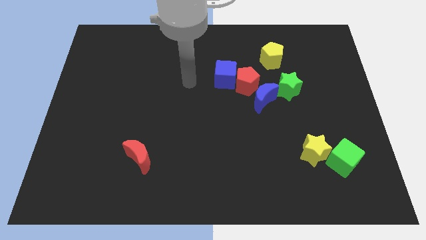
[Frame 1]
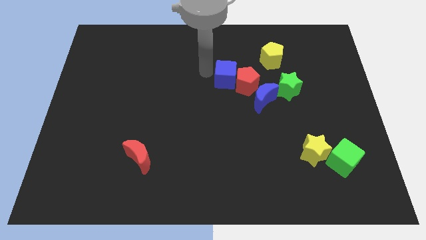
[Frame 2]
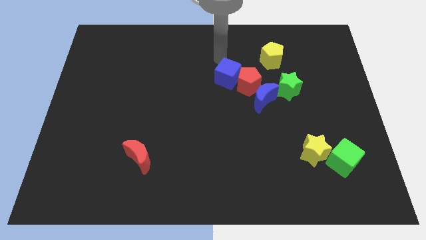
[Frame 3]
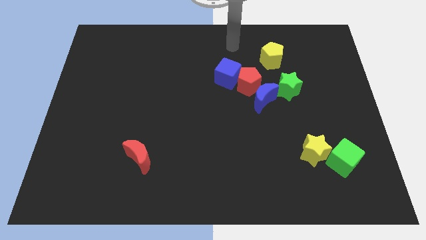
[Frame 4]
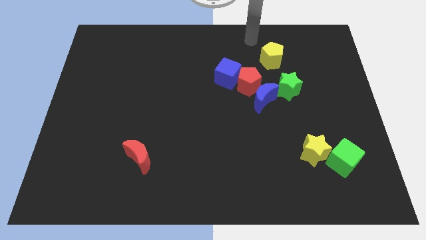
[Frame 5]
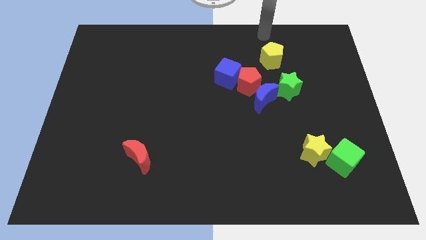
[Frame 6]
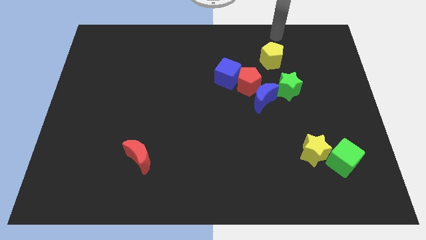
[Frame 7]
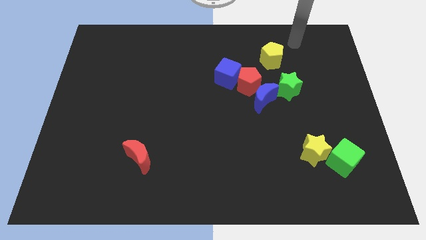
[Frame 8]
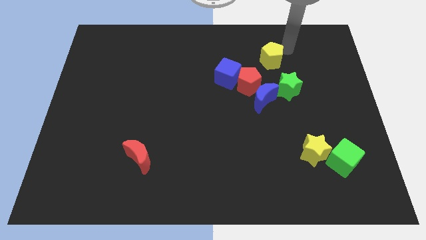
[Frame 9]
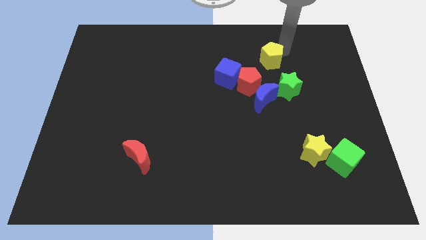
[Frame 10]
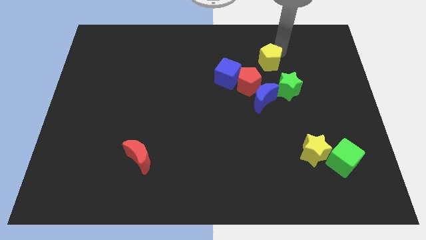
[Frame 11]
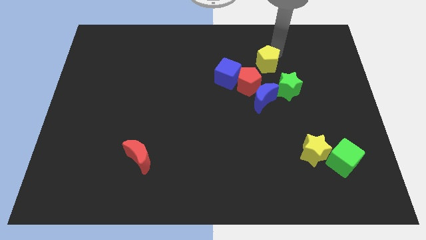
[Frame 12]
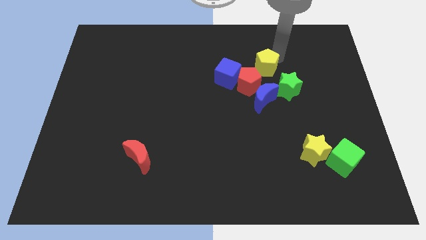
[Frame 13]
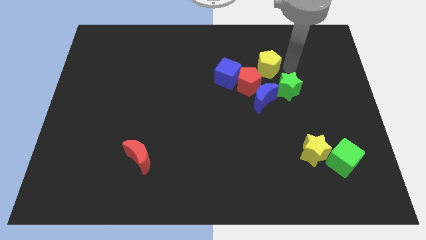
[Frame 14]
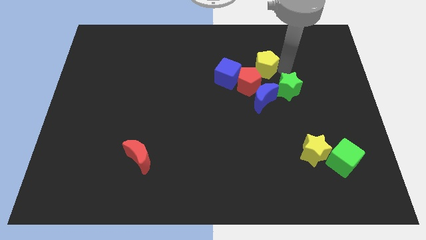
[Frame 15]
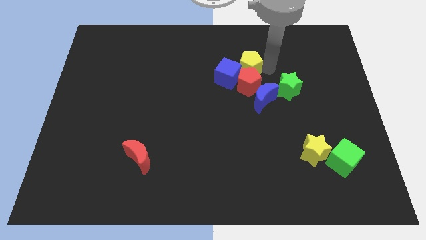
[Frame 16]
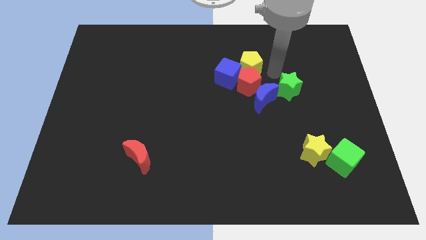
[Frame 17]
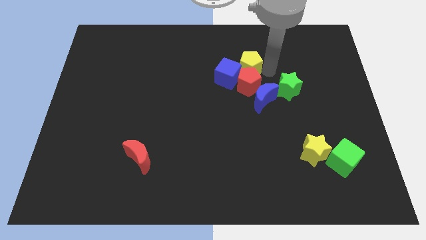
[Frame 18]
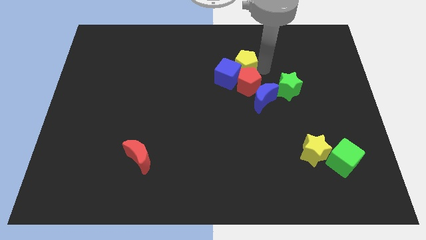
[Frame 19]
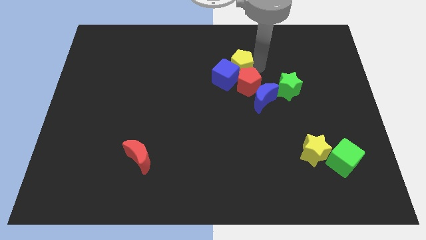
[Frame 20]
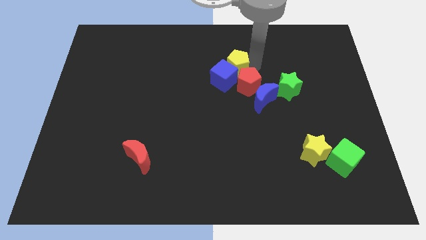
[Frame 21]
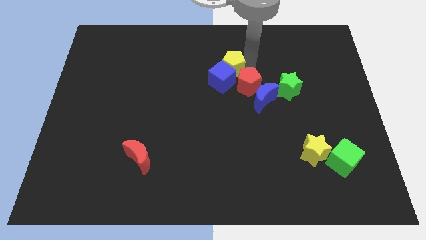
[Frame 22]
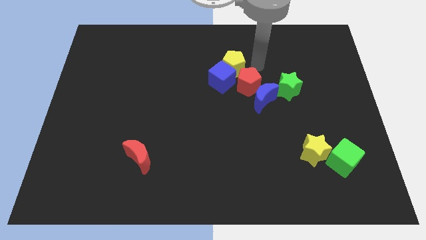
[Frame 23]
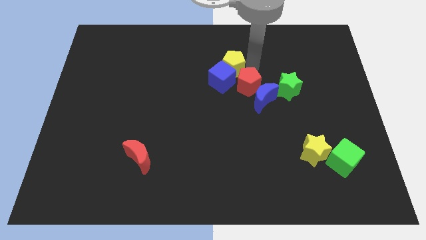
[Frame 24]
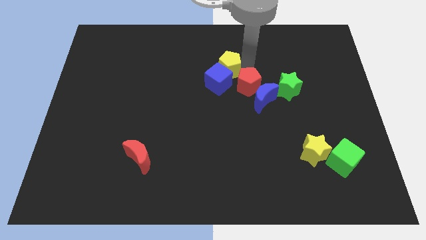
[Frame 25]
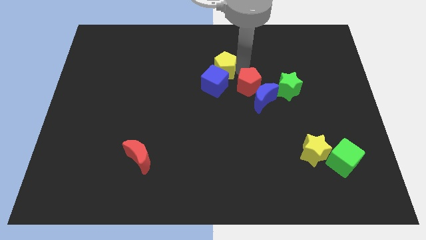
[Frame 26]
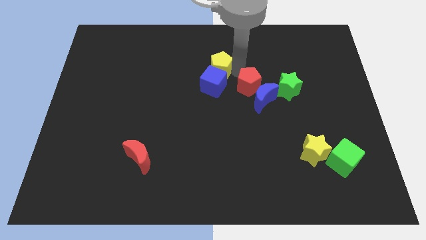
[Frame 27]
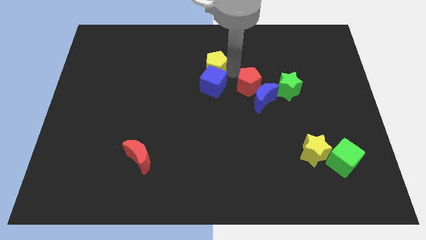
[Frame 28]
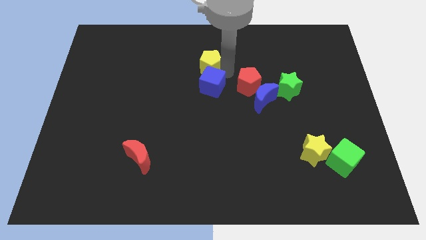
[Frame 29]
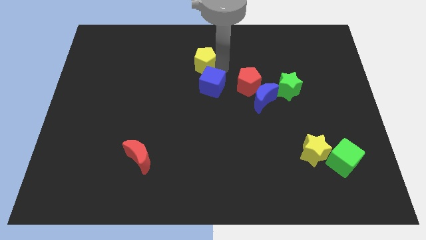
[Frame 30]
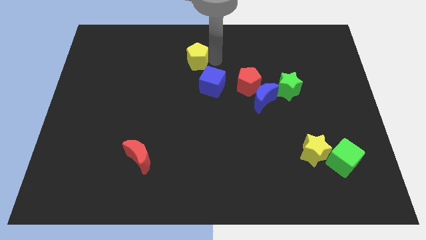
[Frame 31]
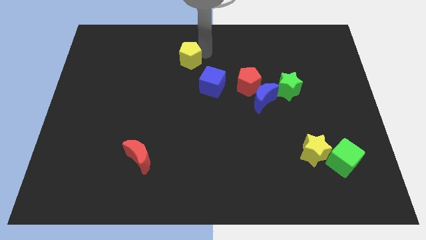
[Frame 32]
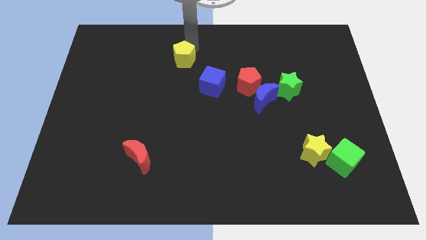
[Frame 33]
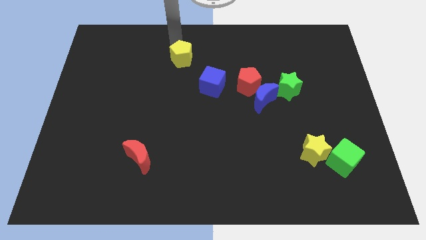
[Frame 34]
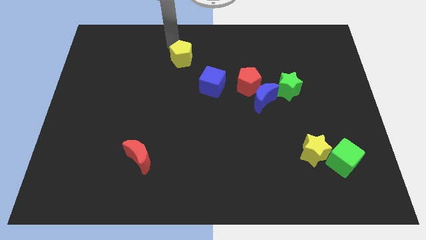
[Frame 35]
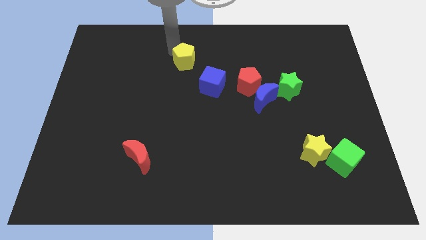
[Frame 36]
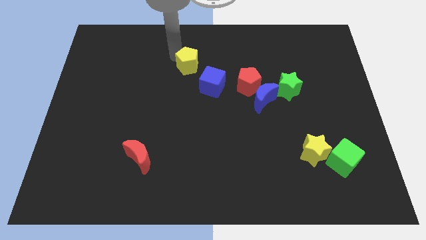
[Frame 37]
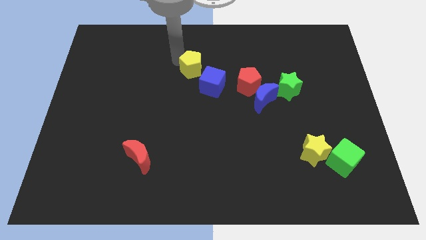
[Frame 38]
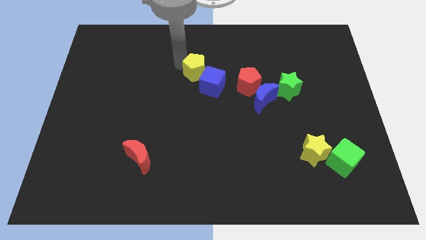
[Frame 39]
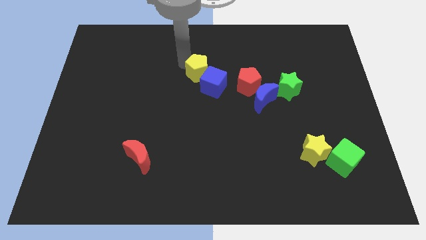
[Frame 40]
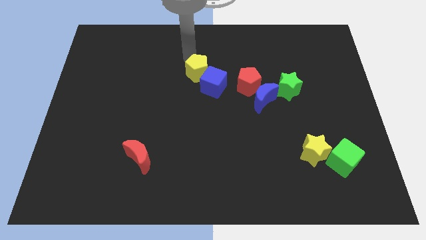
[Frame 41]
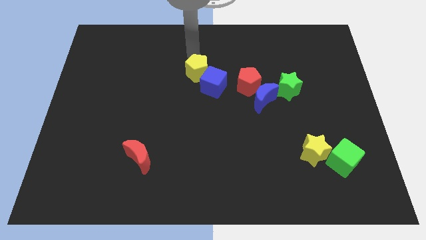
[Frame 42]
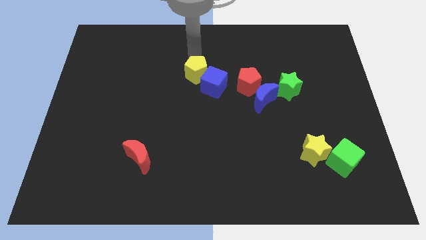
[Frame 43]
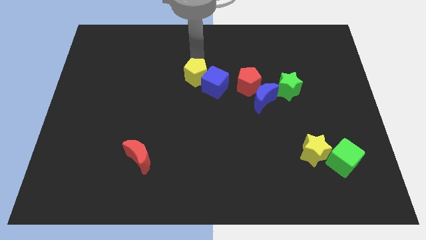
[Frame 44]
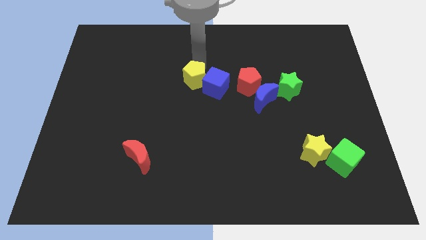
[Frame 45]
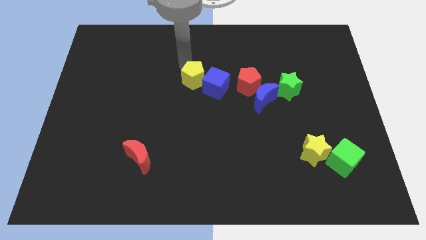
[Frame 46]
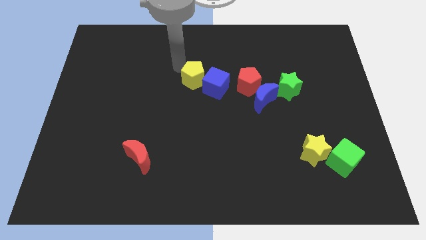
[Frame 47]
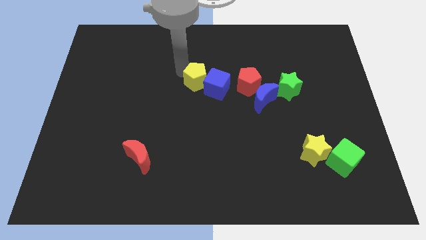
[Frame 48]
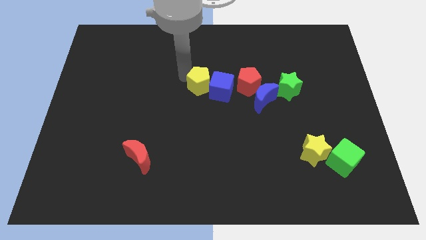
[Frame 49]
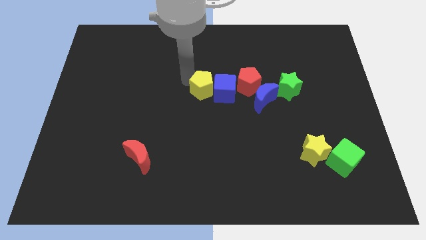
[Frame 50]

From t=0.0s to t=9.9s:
put the yellow pentagon just left of the blue moon
